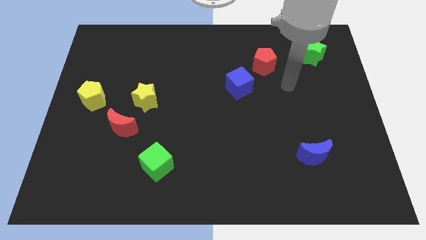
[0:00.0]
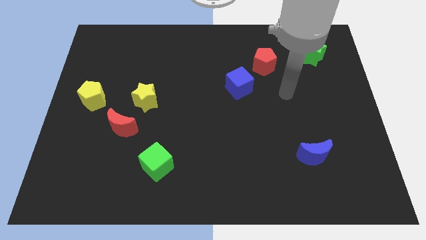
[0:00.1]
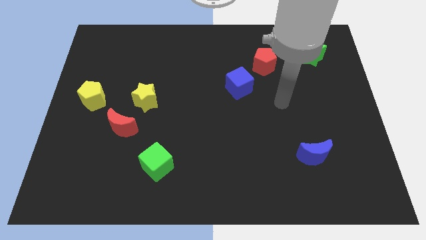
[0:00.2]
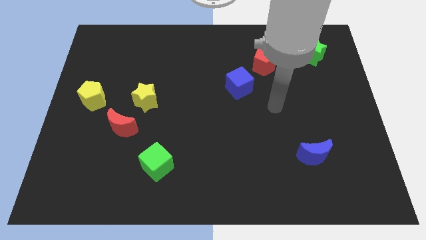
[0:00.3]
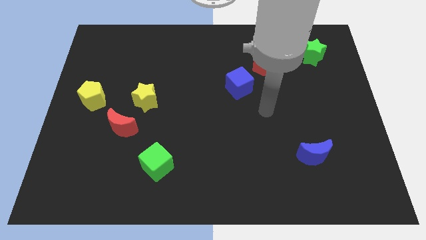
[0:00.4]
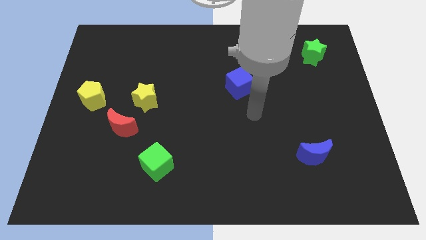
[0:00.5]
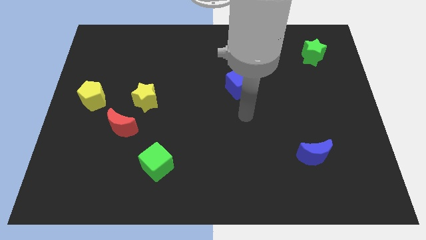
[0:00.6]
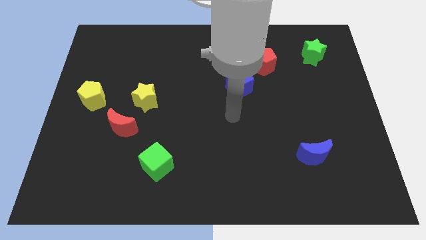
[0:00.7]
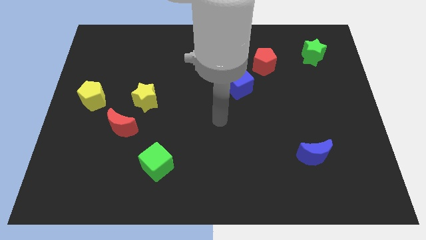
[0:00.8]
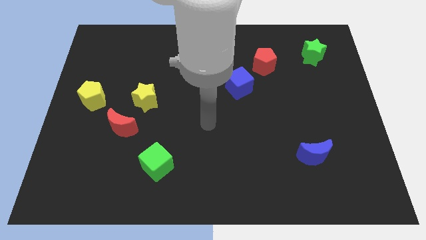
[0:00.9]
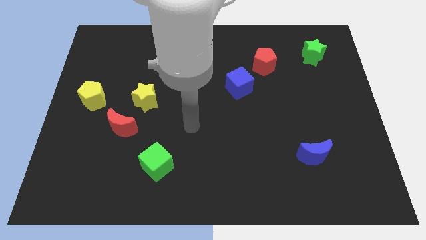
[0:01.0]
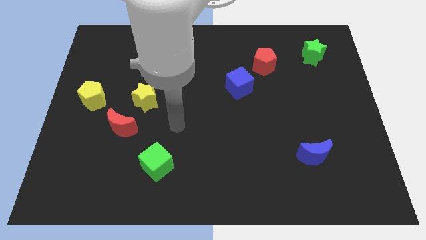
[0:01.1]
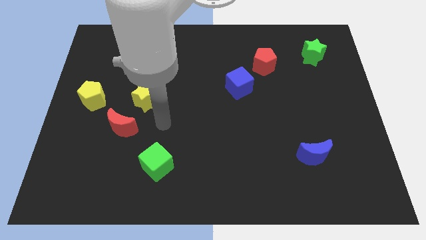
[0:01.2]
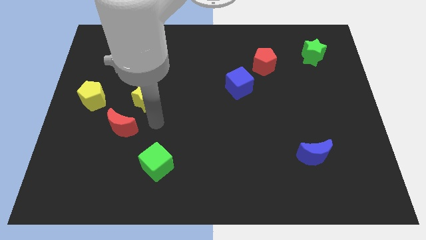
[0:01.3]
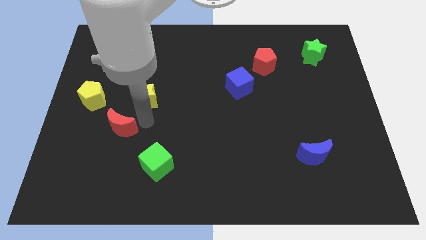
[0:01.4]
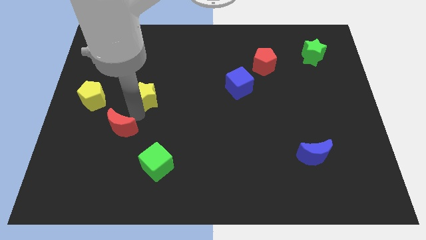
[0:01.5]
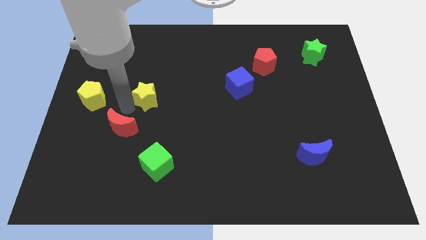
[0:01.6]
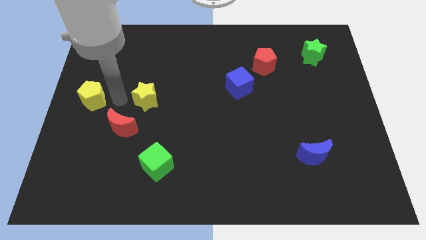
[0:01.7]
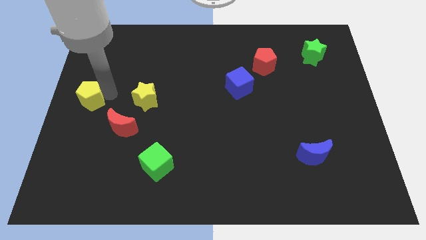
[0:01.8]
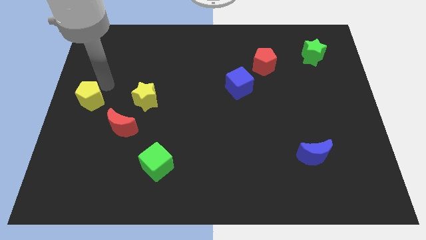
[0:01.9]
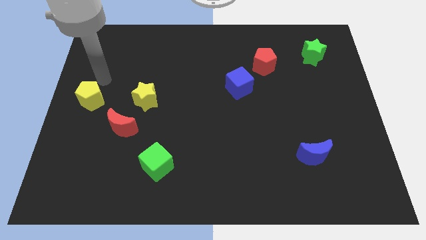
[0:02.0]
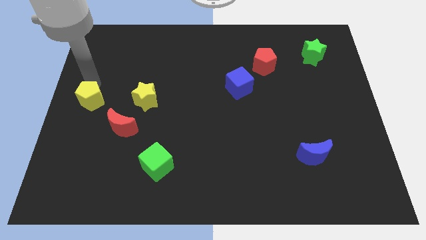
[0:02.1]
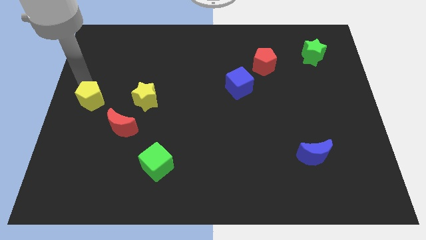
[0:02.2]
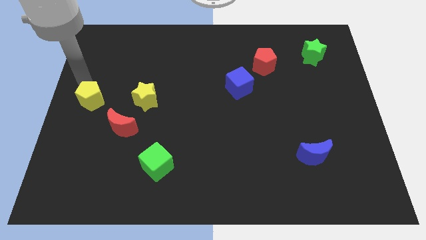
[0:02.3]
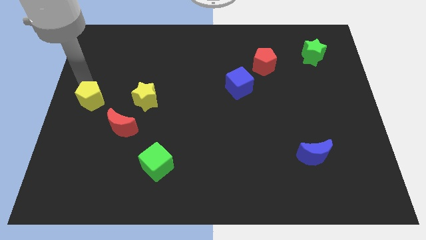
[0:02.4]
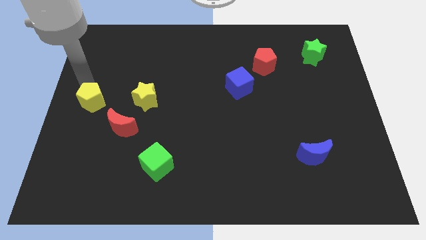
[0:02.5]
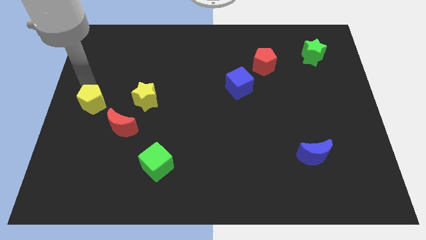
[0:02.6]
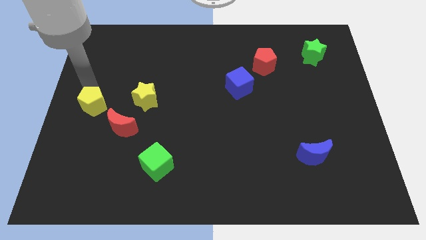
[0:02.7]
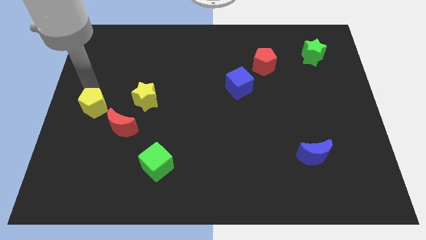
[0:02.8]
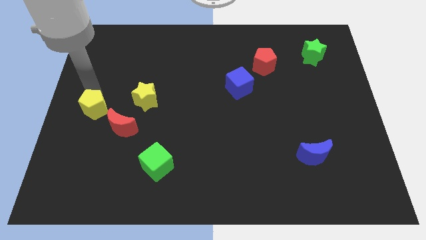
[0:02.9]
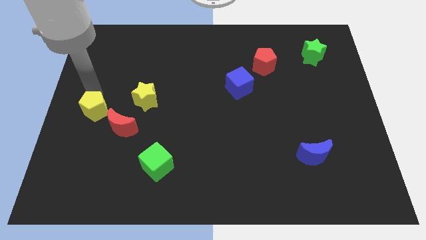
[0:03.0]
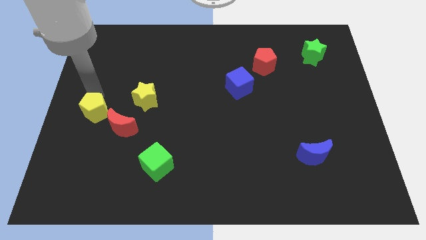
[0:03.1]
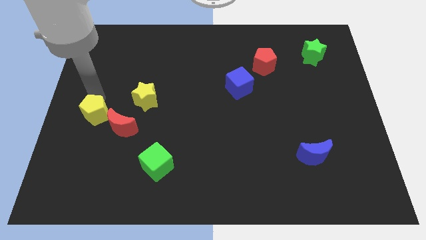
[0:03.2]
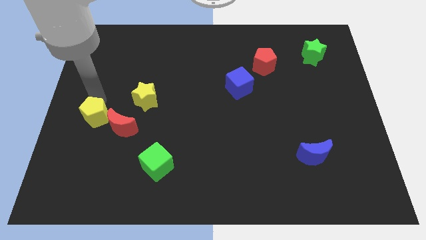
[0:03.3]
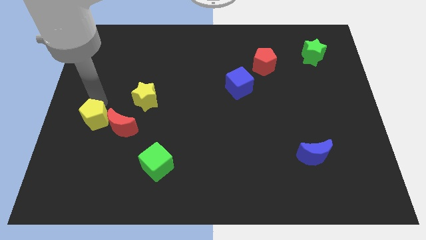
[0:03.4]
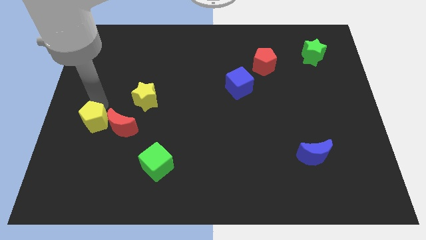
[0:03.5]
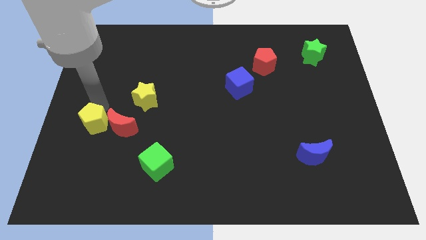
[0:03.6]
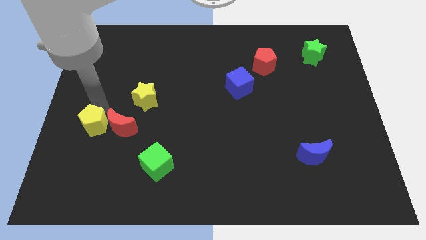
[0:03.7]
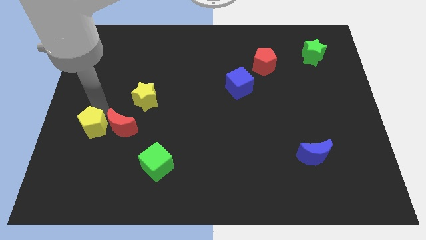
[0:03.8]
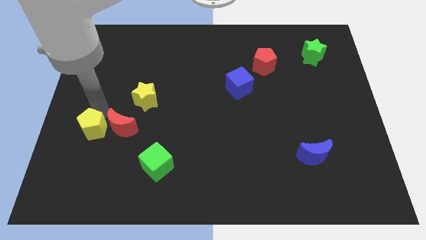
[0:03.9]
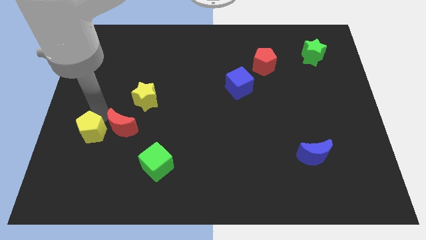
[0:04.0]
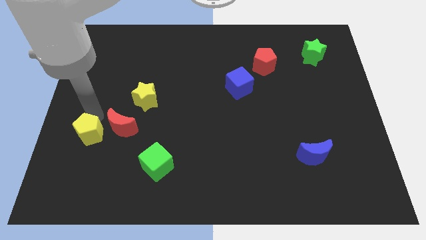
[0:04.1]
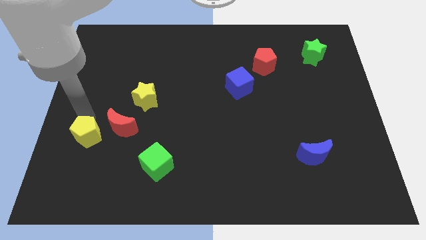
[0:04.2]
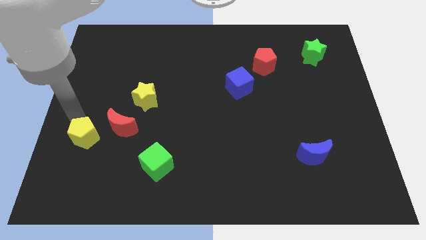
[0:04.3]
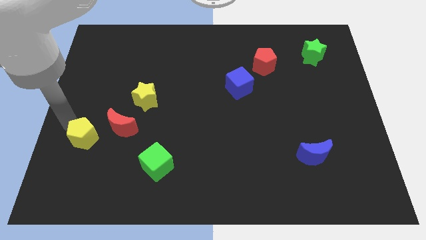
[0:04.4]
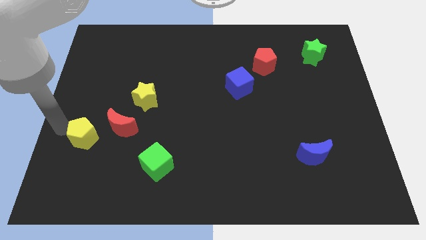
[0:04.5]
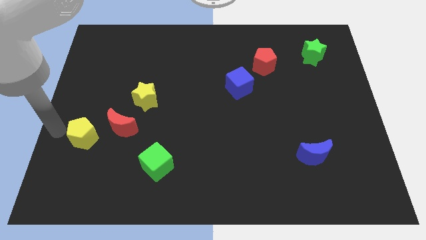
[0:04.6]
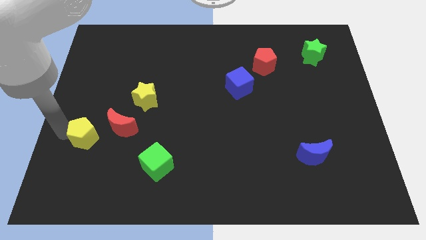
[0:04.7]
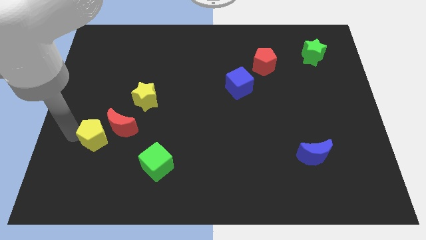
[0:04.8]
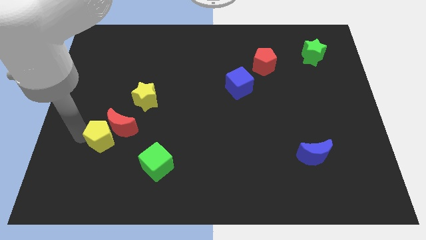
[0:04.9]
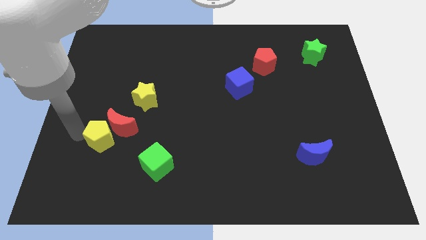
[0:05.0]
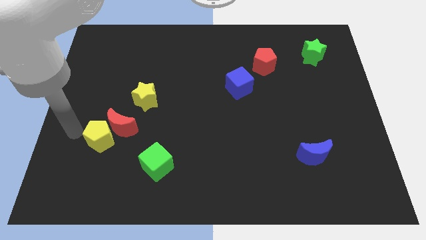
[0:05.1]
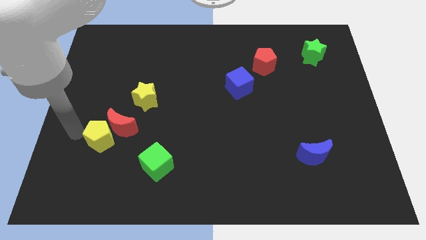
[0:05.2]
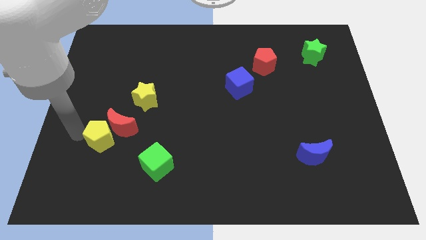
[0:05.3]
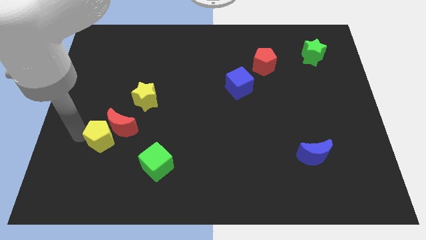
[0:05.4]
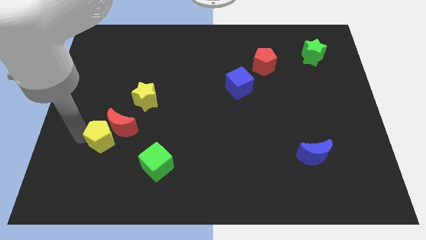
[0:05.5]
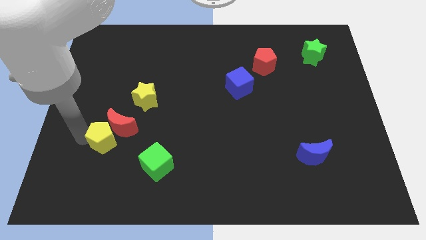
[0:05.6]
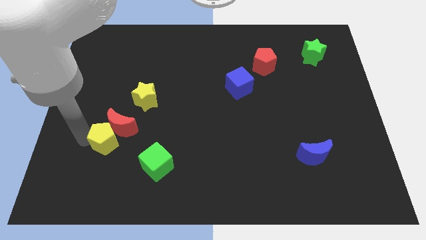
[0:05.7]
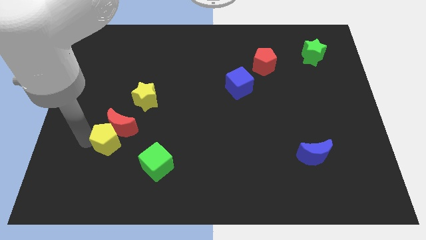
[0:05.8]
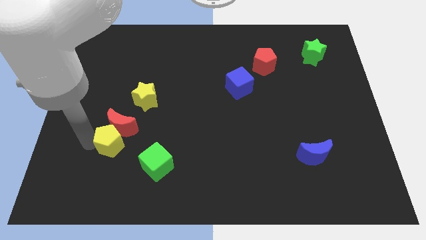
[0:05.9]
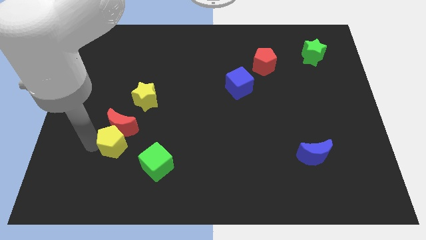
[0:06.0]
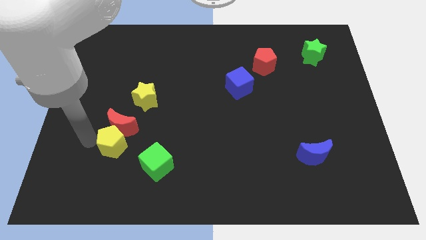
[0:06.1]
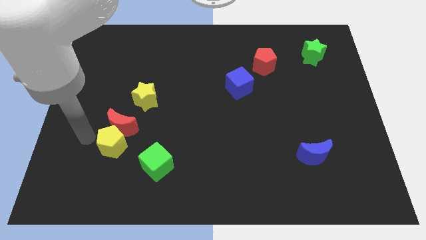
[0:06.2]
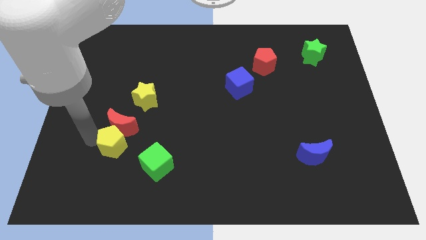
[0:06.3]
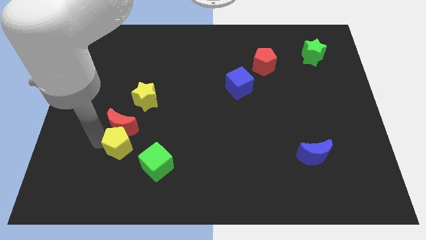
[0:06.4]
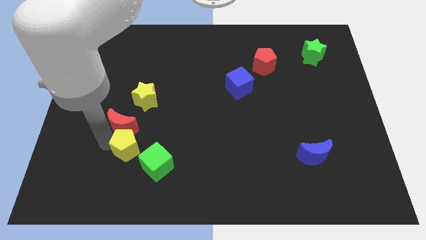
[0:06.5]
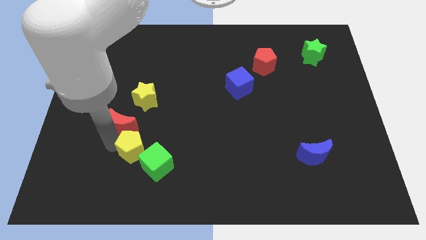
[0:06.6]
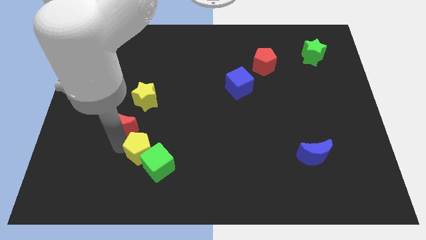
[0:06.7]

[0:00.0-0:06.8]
slide the yellow pentagon next to the green cube

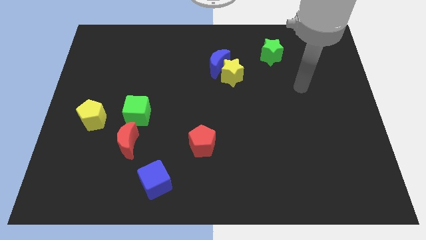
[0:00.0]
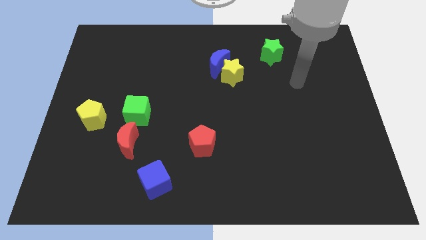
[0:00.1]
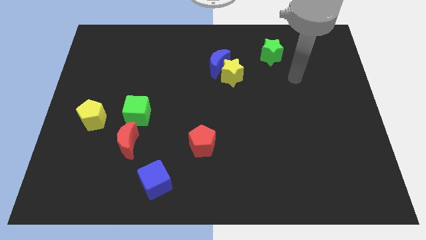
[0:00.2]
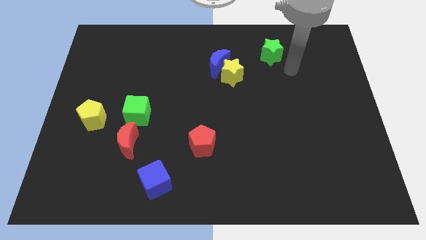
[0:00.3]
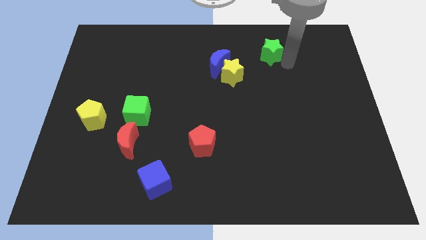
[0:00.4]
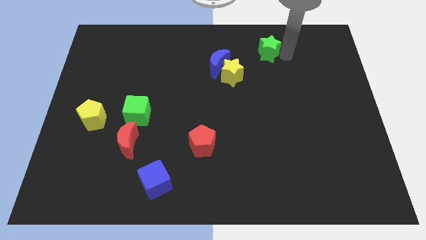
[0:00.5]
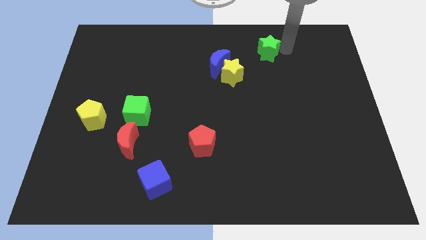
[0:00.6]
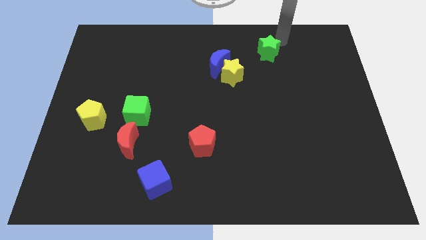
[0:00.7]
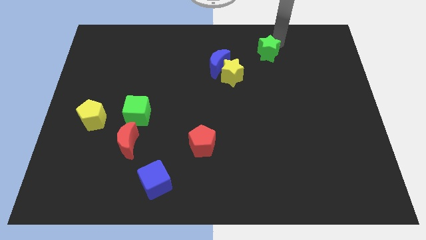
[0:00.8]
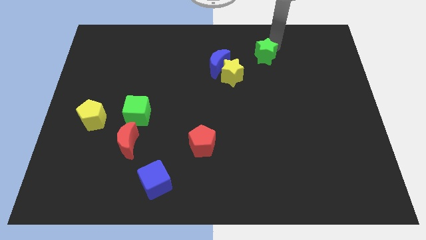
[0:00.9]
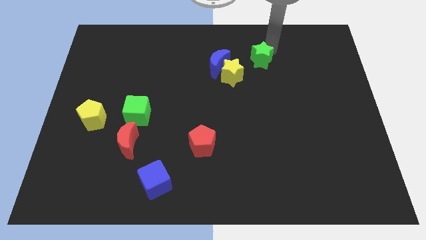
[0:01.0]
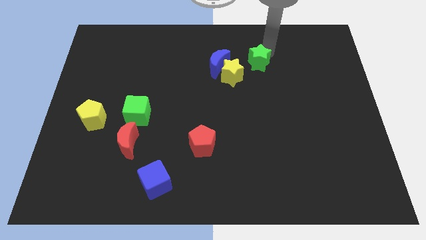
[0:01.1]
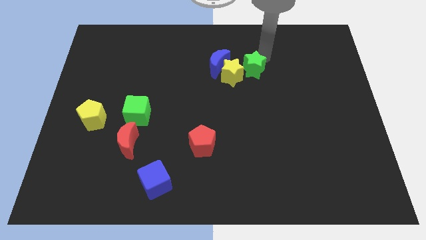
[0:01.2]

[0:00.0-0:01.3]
move the green star next to the yellow star
